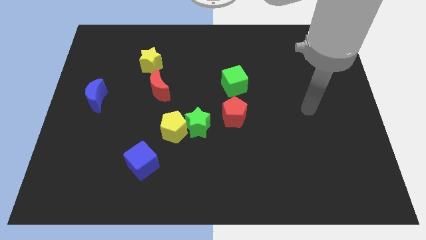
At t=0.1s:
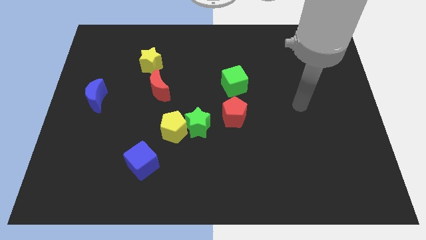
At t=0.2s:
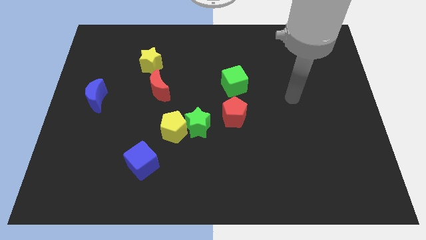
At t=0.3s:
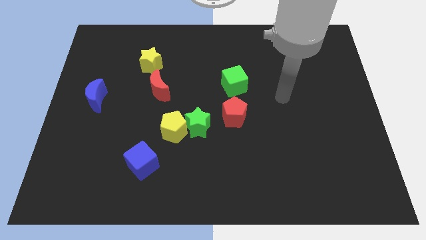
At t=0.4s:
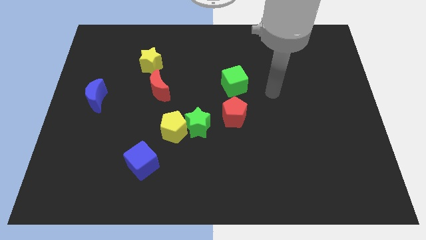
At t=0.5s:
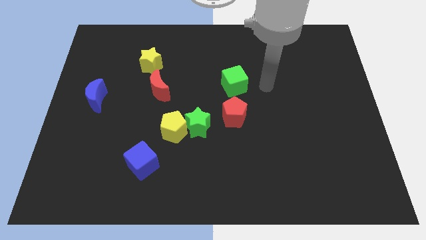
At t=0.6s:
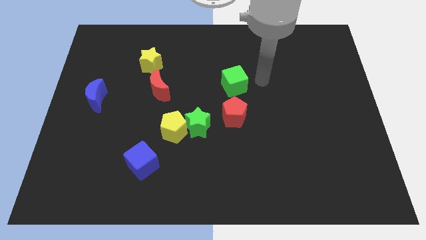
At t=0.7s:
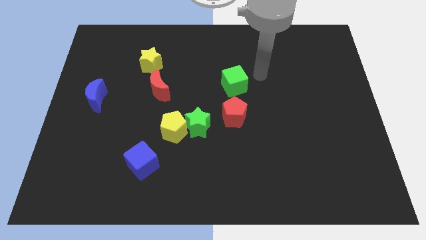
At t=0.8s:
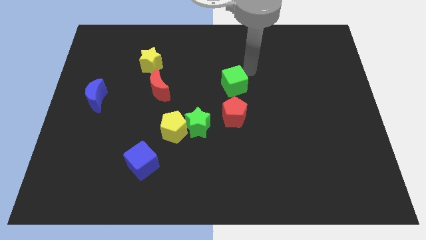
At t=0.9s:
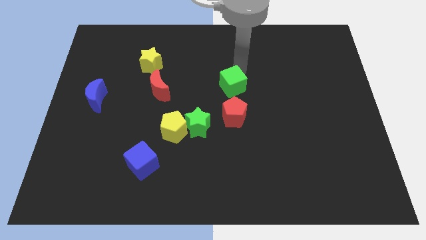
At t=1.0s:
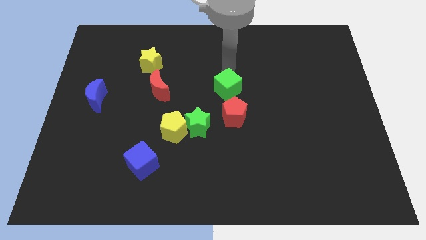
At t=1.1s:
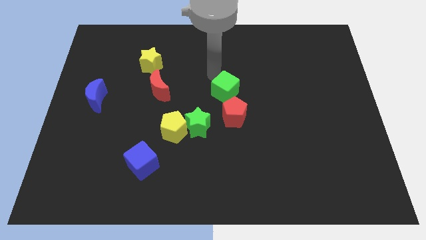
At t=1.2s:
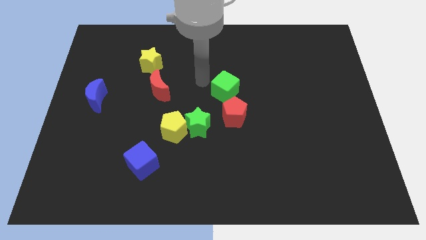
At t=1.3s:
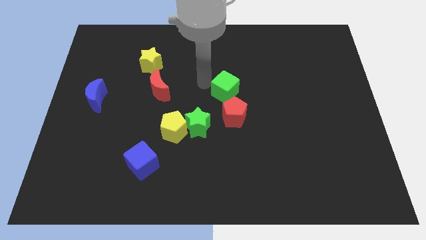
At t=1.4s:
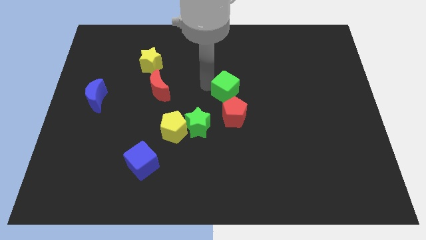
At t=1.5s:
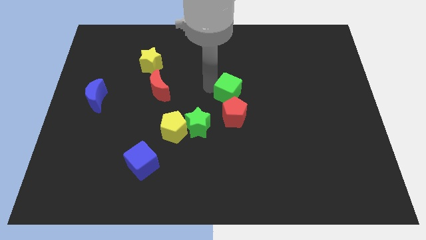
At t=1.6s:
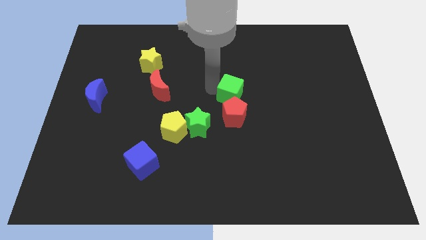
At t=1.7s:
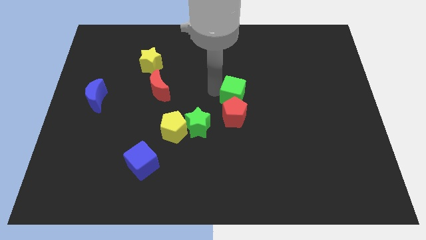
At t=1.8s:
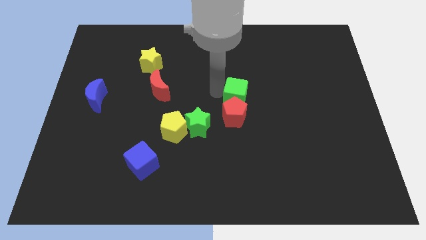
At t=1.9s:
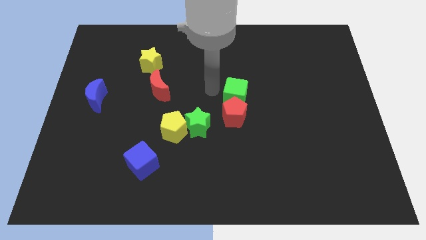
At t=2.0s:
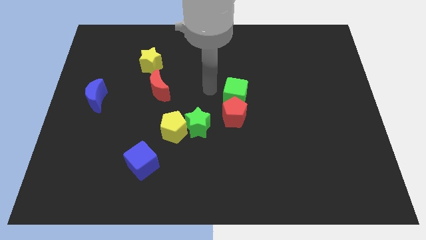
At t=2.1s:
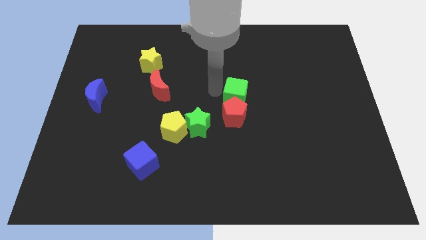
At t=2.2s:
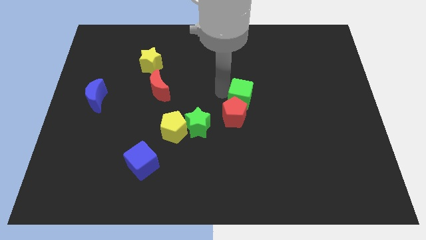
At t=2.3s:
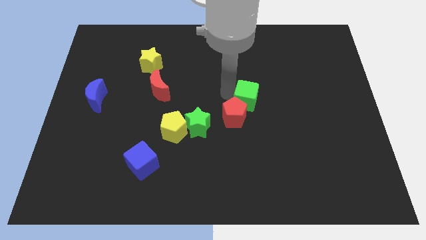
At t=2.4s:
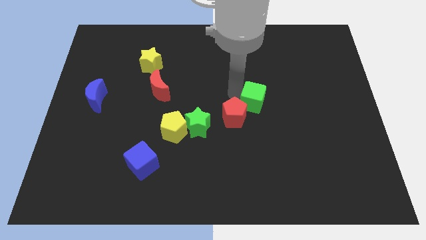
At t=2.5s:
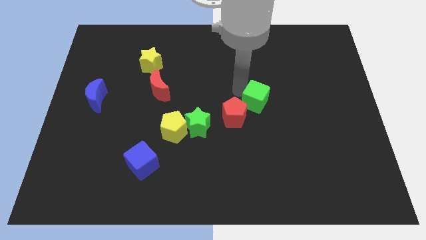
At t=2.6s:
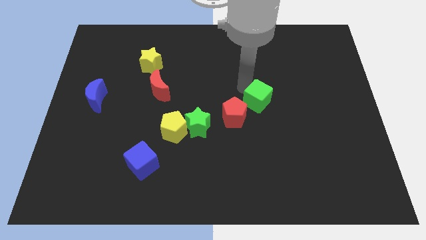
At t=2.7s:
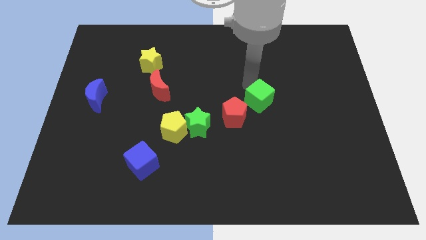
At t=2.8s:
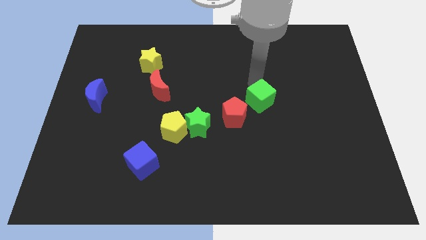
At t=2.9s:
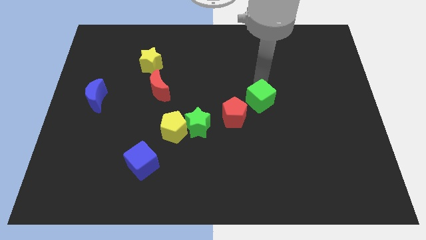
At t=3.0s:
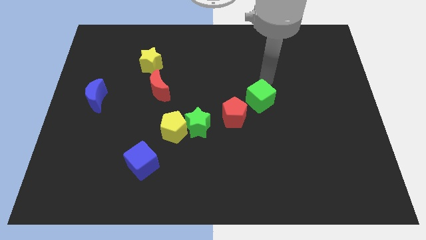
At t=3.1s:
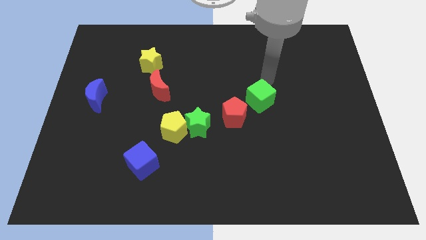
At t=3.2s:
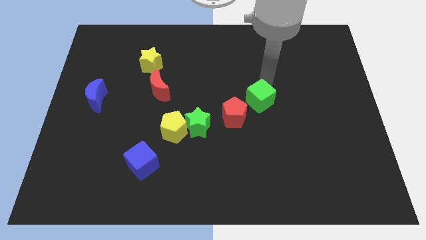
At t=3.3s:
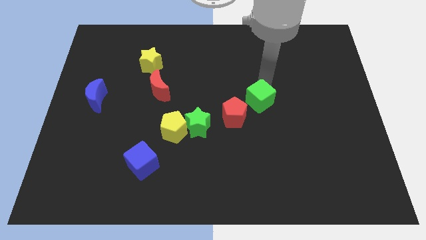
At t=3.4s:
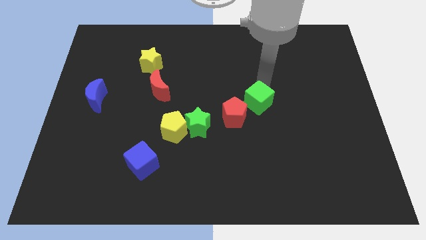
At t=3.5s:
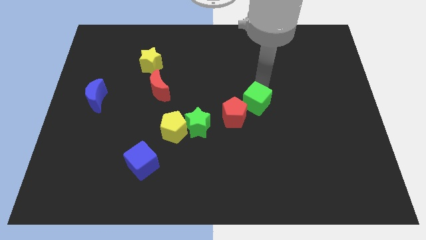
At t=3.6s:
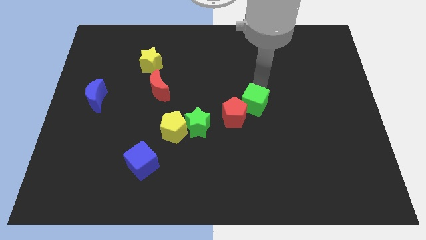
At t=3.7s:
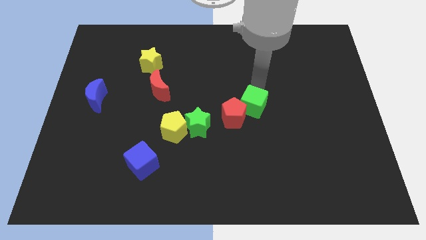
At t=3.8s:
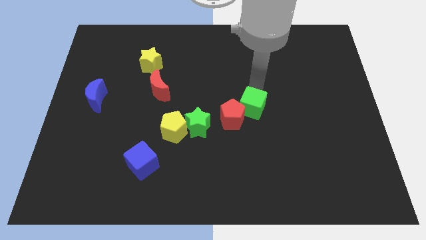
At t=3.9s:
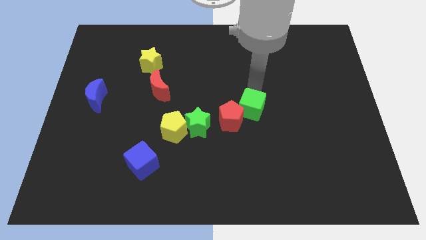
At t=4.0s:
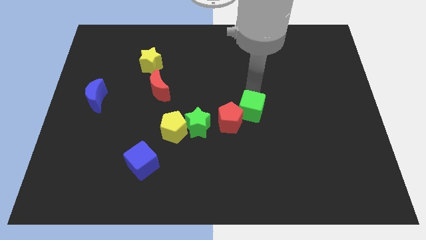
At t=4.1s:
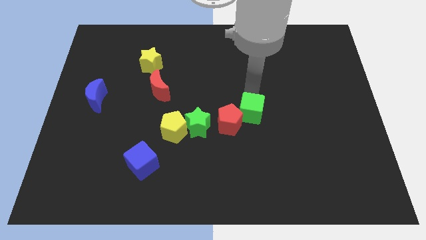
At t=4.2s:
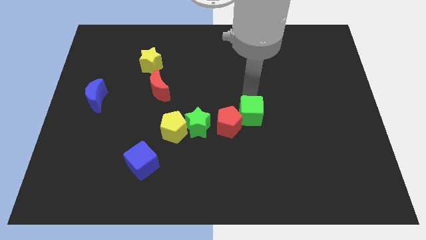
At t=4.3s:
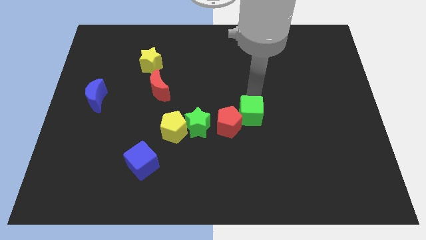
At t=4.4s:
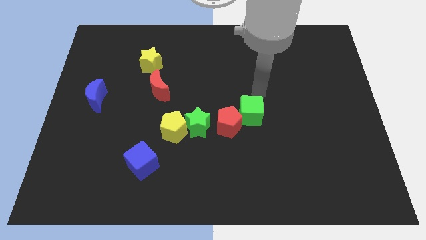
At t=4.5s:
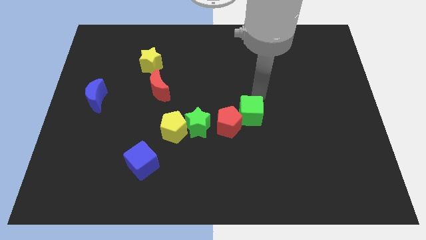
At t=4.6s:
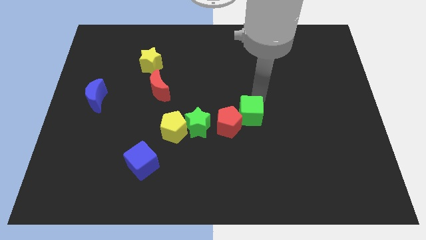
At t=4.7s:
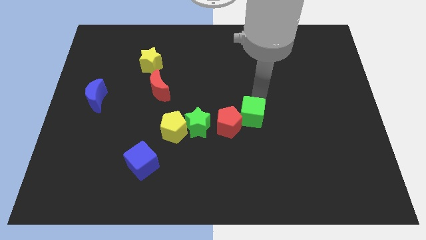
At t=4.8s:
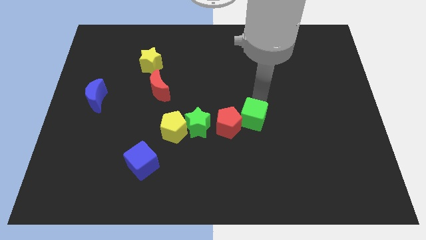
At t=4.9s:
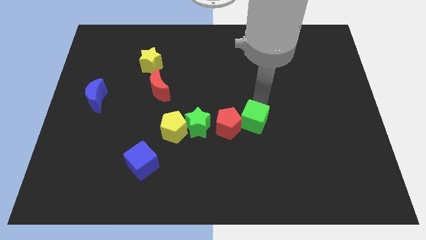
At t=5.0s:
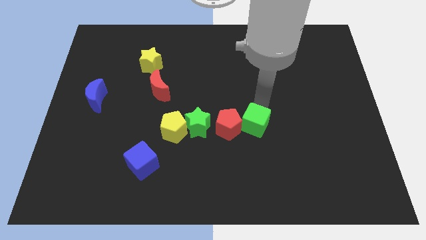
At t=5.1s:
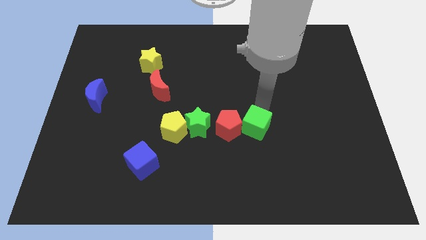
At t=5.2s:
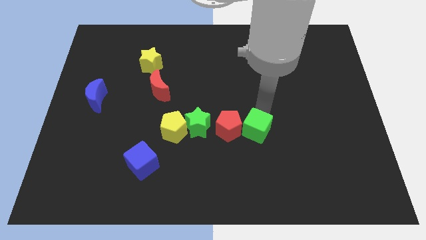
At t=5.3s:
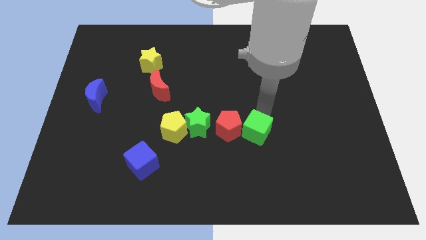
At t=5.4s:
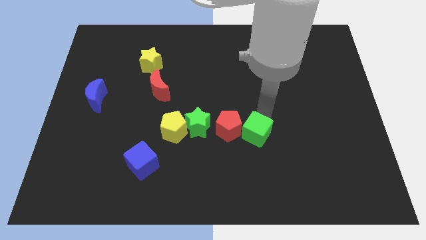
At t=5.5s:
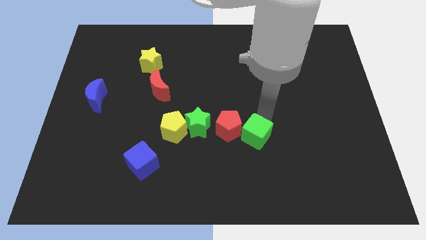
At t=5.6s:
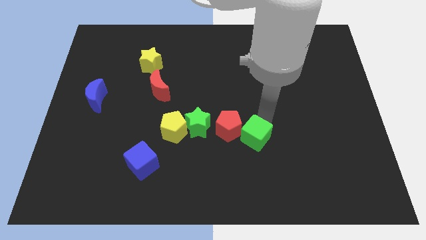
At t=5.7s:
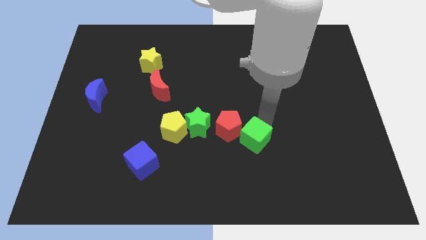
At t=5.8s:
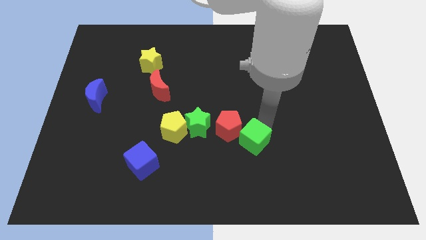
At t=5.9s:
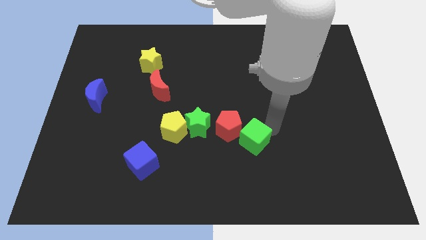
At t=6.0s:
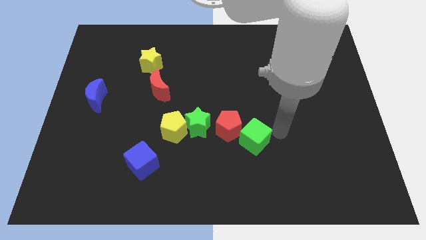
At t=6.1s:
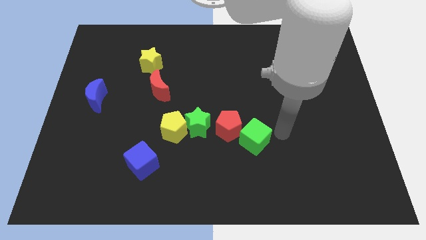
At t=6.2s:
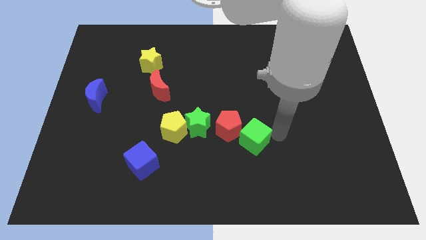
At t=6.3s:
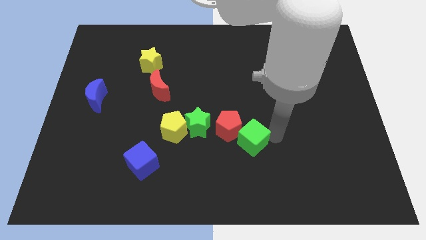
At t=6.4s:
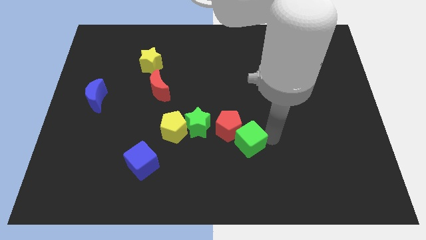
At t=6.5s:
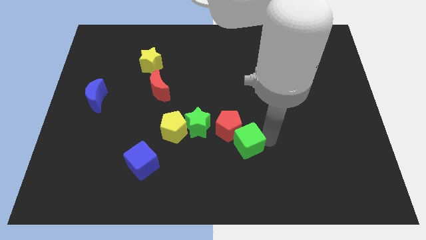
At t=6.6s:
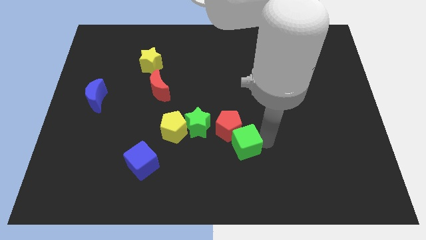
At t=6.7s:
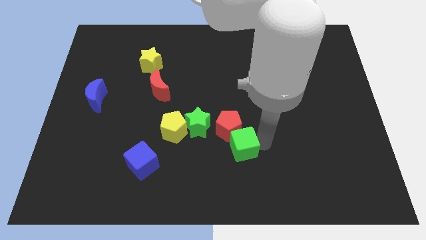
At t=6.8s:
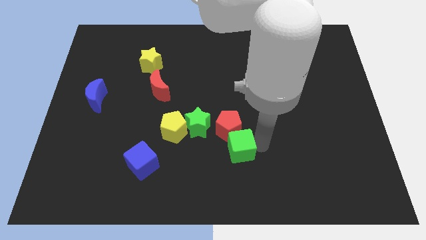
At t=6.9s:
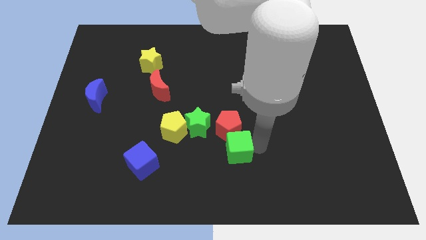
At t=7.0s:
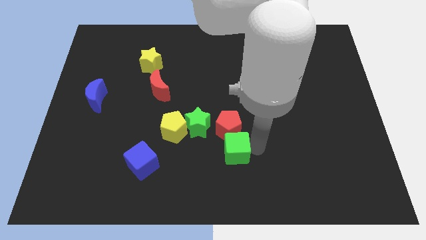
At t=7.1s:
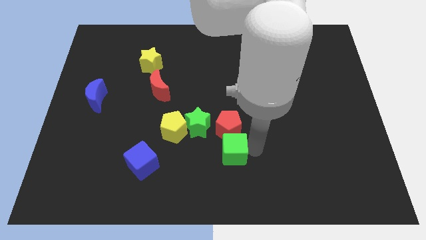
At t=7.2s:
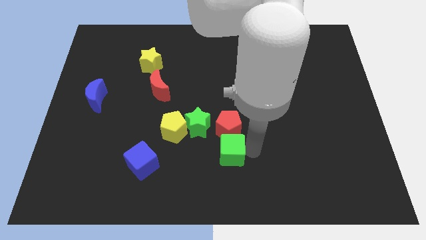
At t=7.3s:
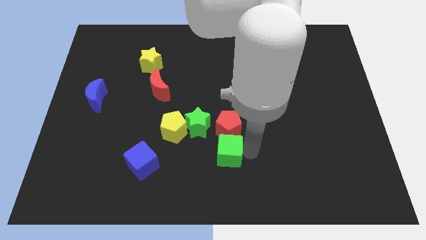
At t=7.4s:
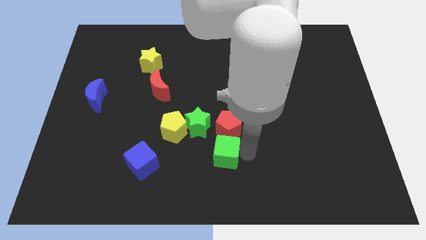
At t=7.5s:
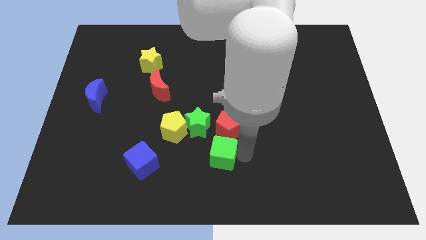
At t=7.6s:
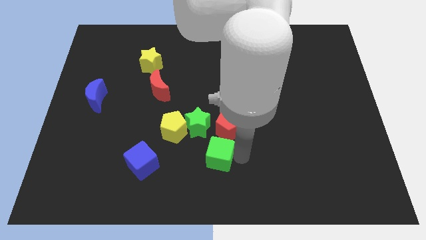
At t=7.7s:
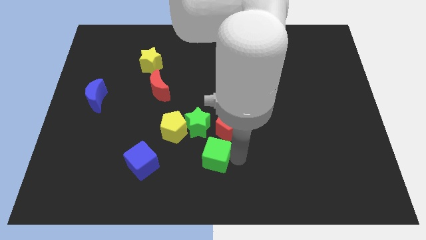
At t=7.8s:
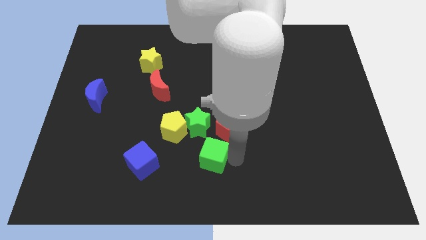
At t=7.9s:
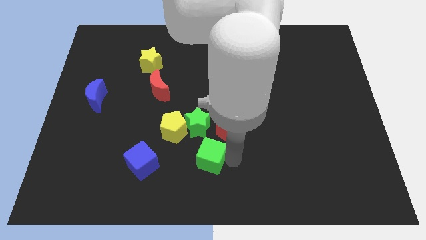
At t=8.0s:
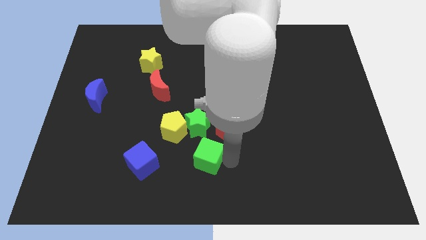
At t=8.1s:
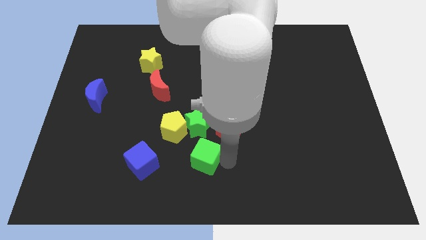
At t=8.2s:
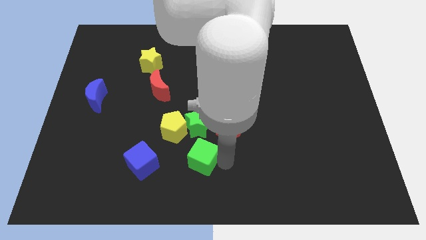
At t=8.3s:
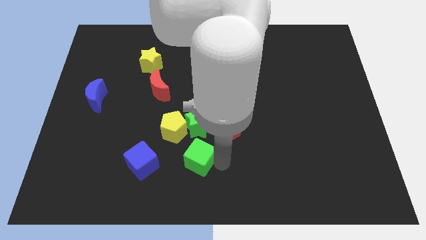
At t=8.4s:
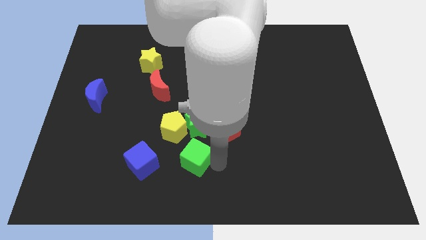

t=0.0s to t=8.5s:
push the green cube to the bottom of the yellow pentagon
